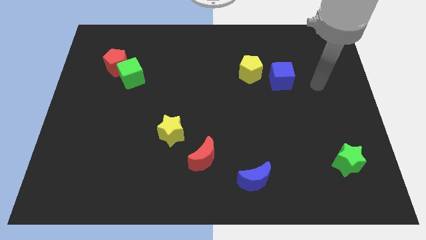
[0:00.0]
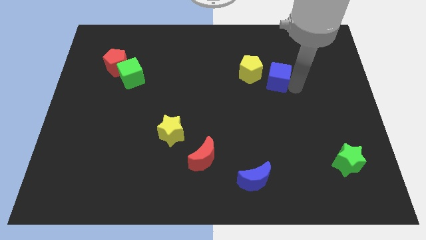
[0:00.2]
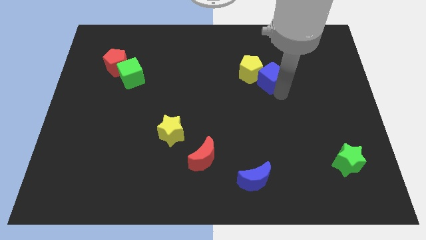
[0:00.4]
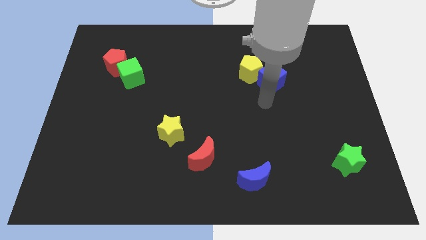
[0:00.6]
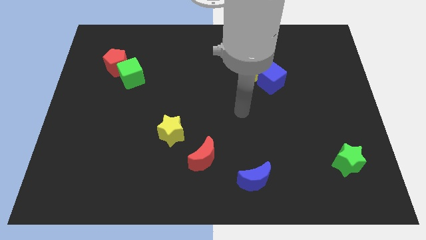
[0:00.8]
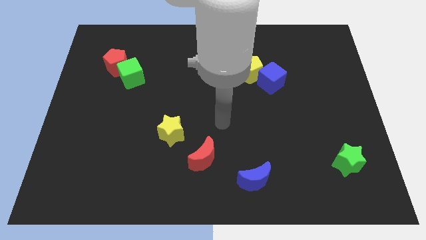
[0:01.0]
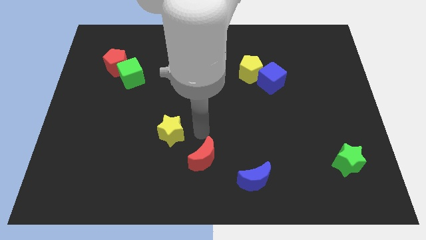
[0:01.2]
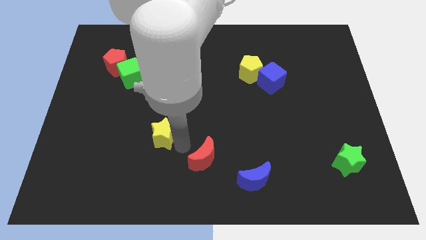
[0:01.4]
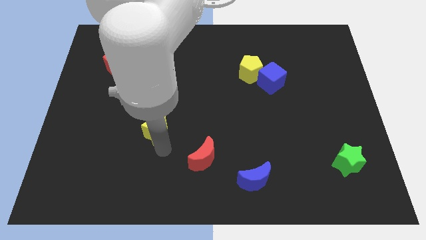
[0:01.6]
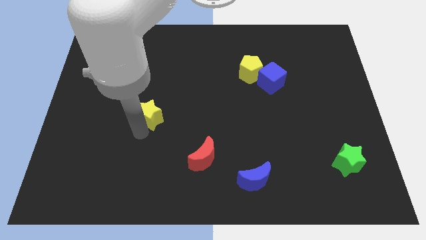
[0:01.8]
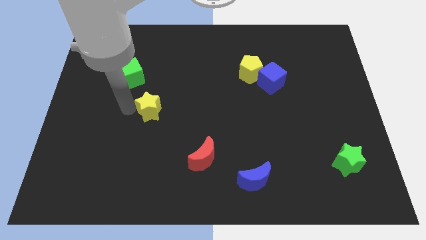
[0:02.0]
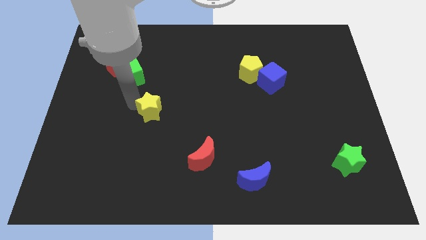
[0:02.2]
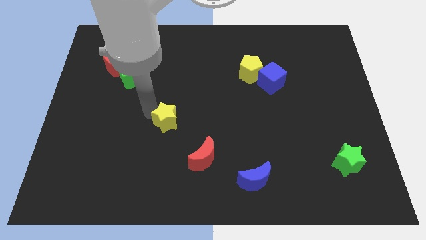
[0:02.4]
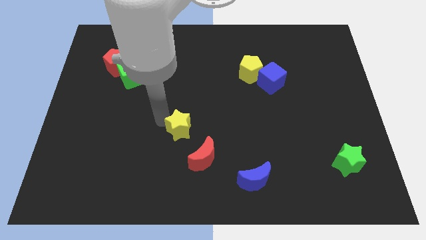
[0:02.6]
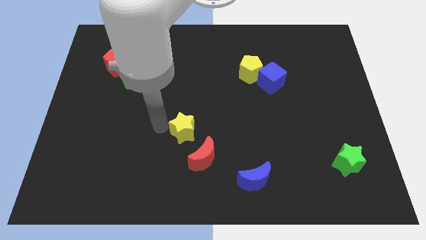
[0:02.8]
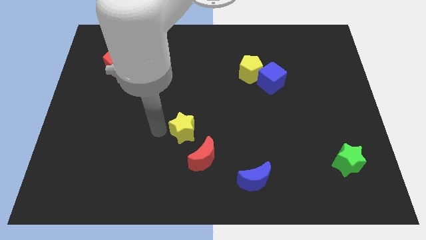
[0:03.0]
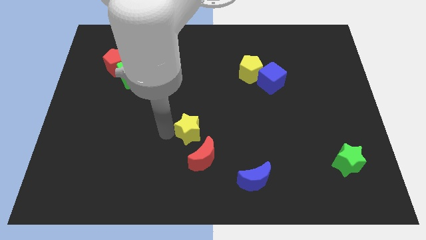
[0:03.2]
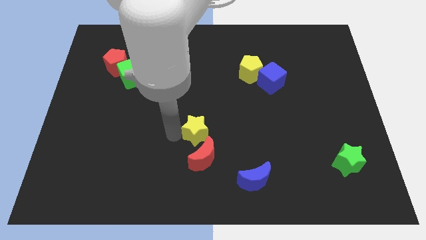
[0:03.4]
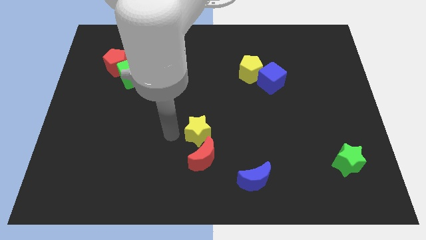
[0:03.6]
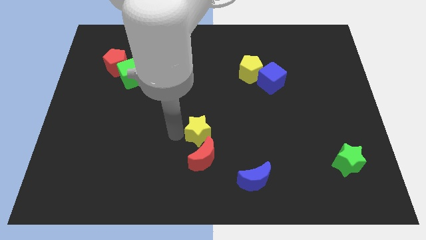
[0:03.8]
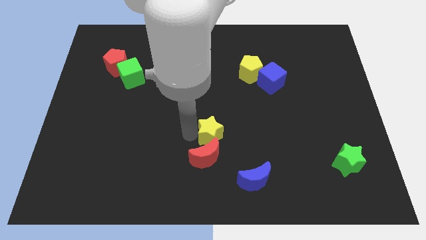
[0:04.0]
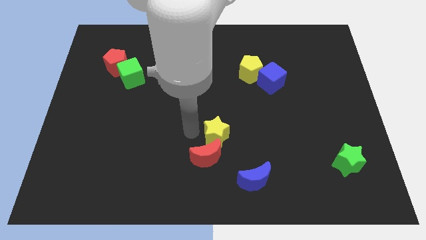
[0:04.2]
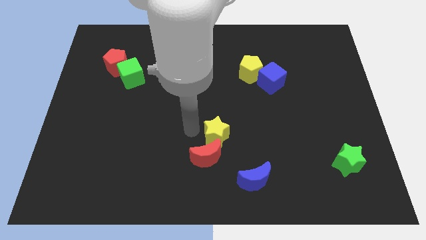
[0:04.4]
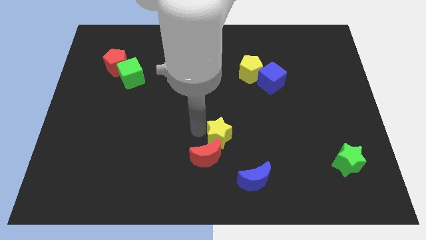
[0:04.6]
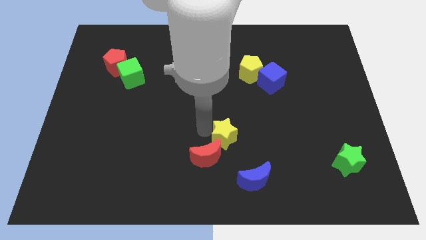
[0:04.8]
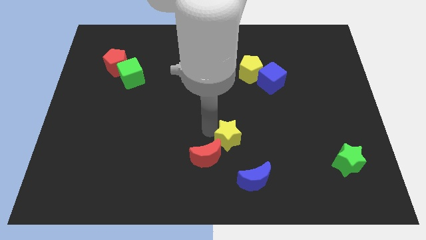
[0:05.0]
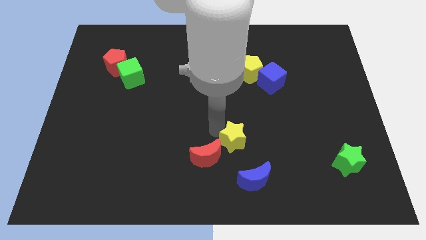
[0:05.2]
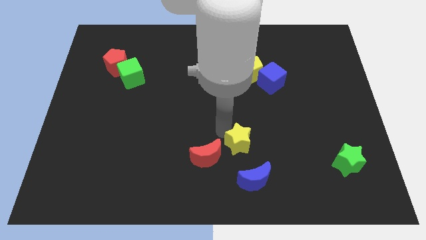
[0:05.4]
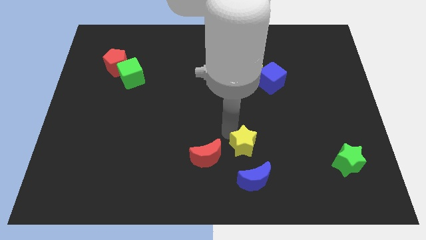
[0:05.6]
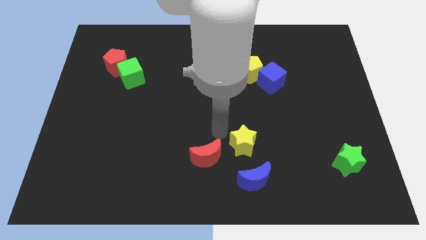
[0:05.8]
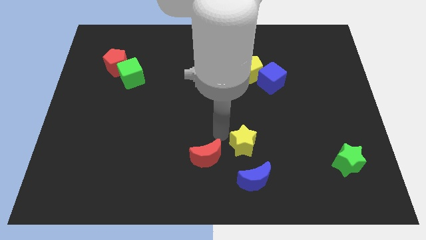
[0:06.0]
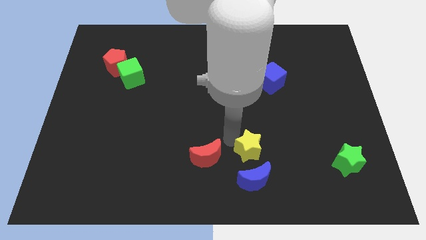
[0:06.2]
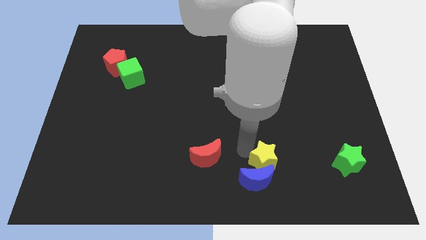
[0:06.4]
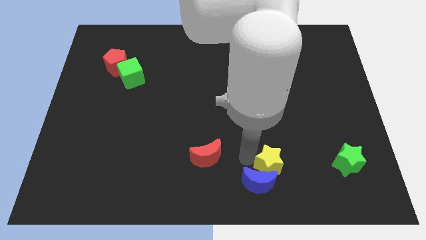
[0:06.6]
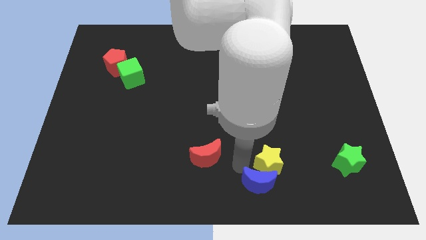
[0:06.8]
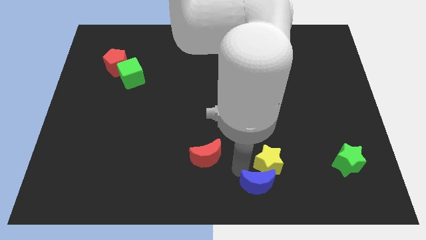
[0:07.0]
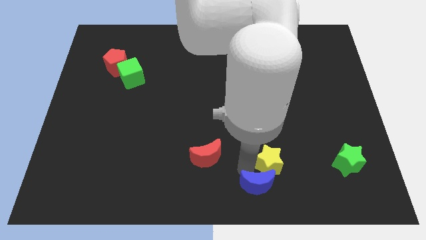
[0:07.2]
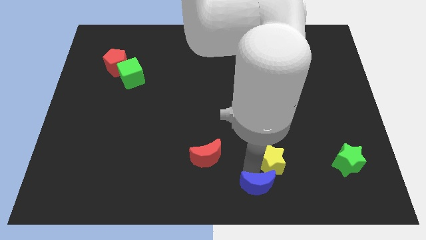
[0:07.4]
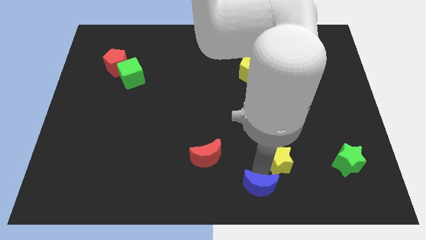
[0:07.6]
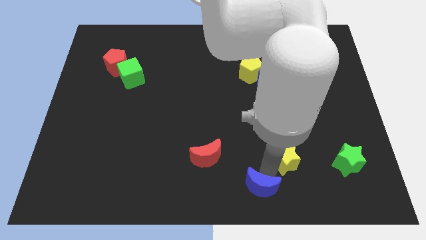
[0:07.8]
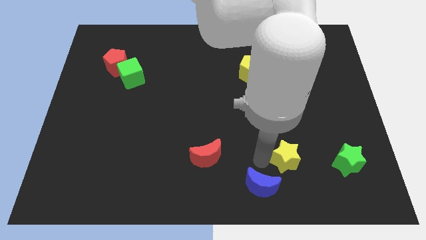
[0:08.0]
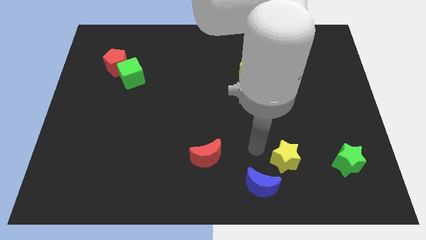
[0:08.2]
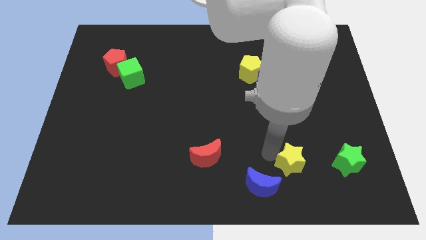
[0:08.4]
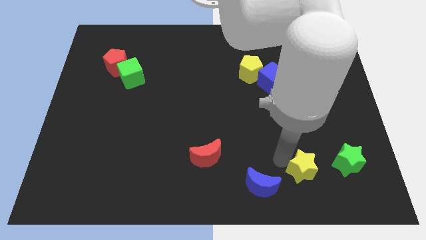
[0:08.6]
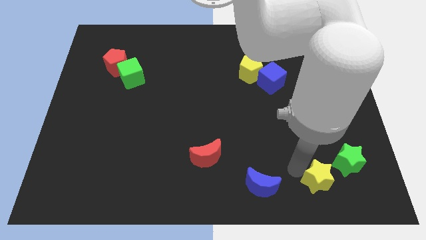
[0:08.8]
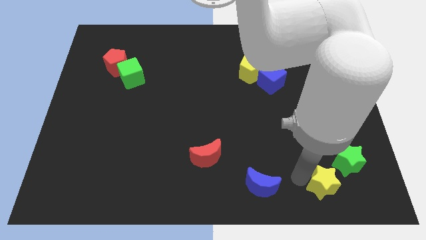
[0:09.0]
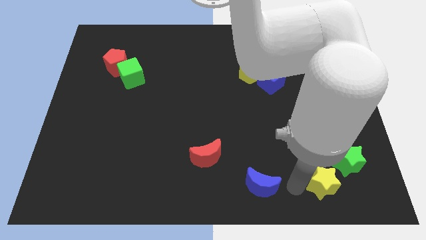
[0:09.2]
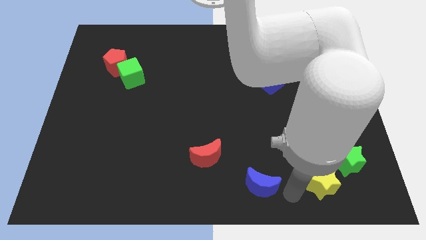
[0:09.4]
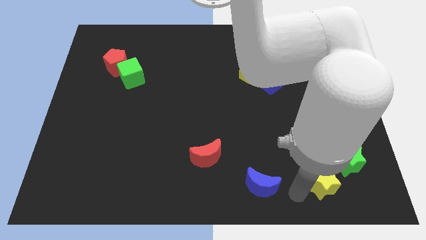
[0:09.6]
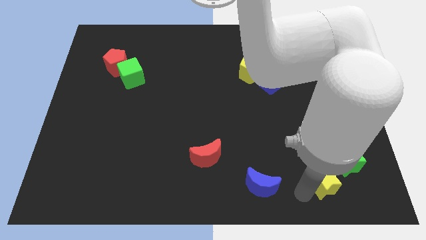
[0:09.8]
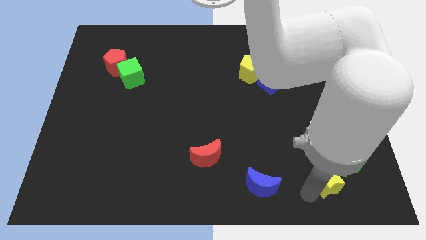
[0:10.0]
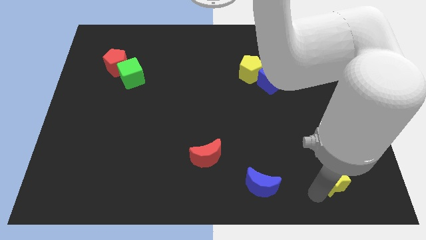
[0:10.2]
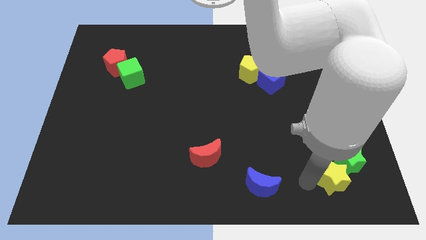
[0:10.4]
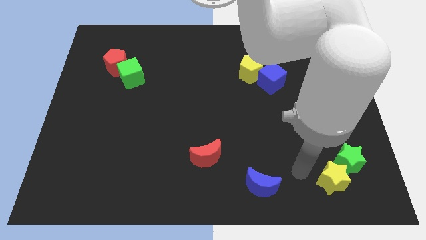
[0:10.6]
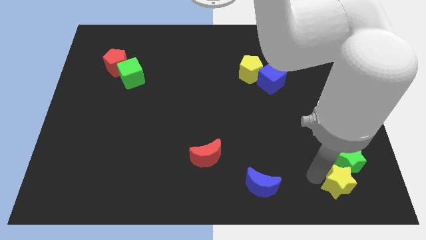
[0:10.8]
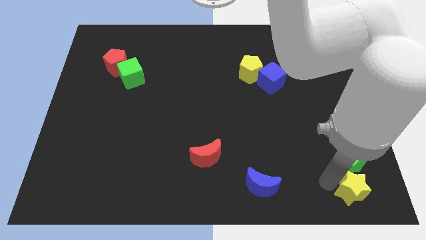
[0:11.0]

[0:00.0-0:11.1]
slide the yellow star to the lower right corner

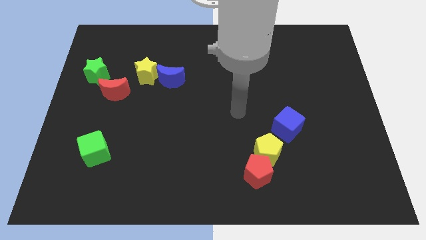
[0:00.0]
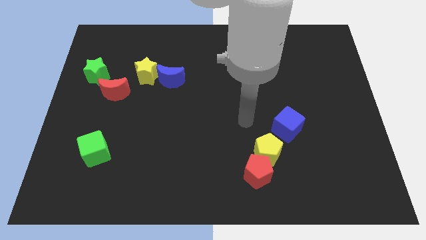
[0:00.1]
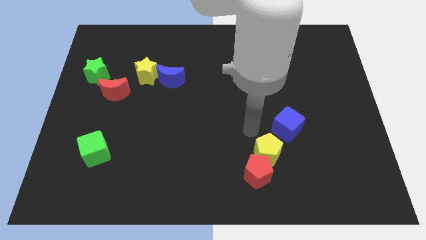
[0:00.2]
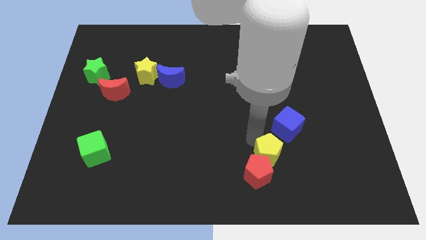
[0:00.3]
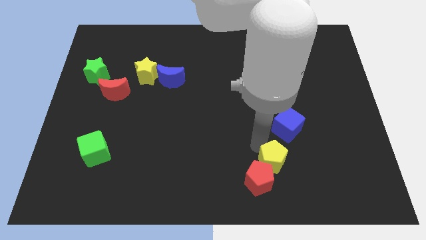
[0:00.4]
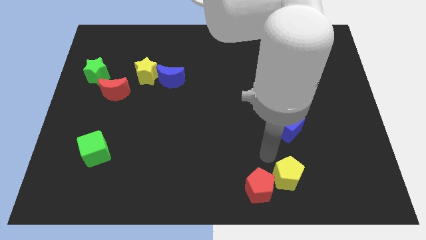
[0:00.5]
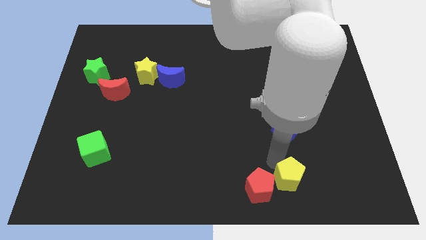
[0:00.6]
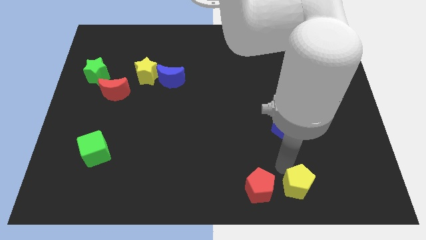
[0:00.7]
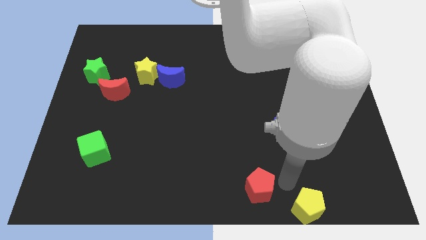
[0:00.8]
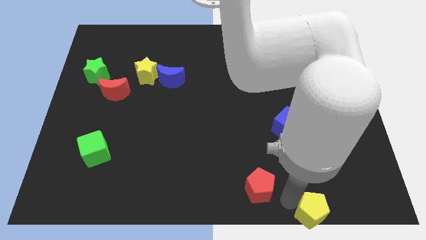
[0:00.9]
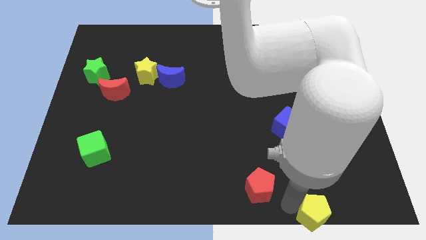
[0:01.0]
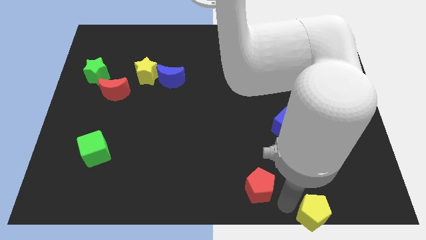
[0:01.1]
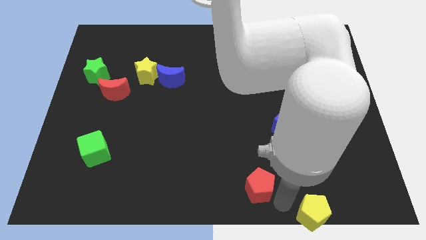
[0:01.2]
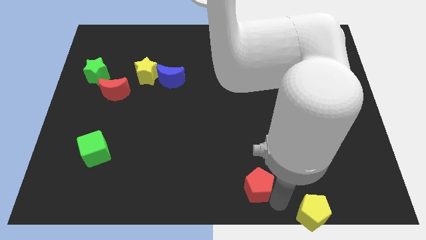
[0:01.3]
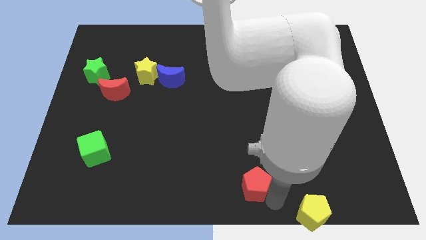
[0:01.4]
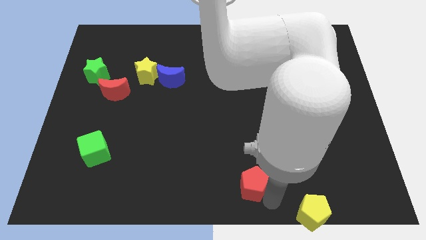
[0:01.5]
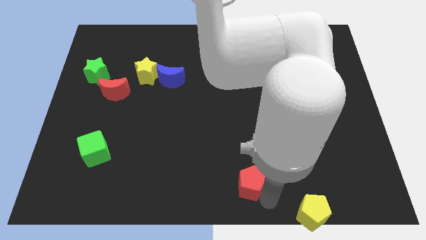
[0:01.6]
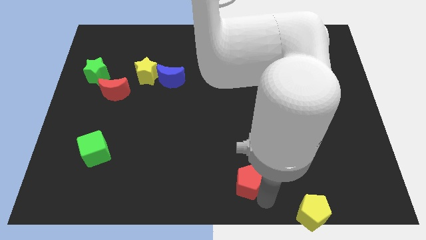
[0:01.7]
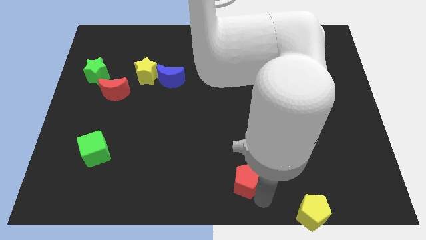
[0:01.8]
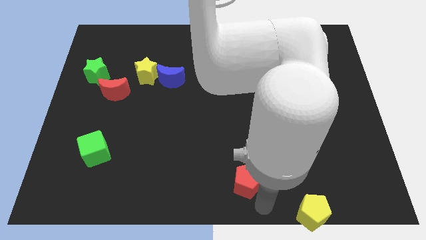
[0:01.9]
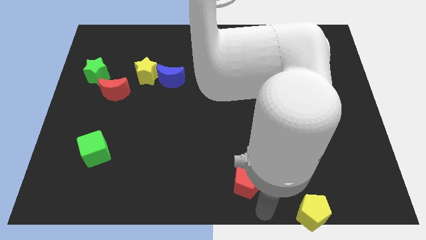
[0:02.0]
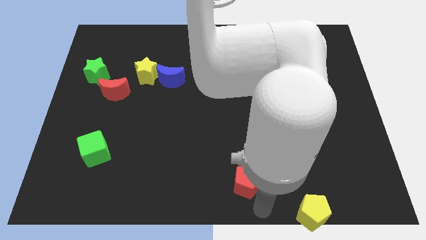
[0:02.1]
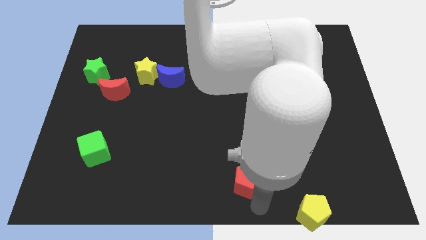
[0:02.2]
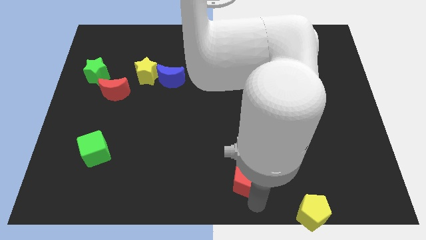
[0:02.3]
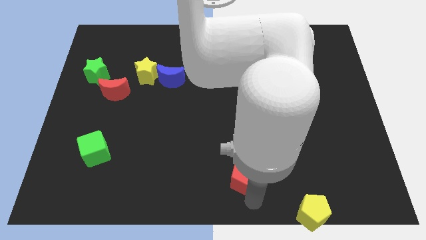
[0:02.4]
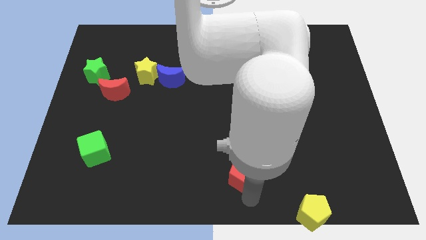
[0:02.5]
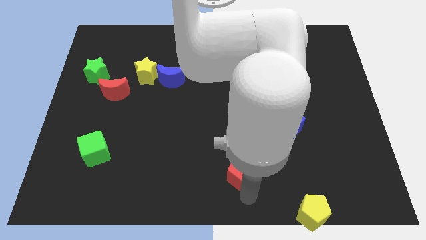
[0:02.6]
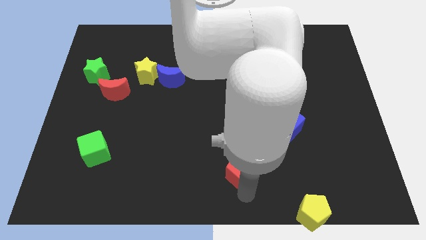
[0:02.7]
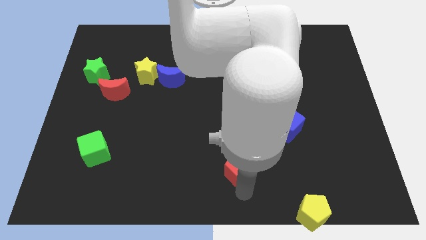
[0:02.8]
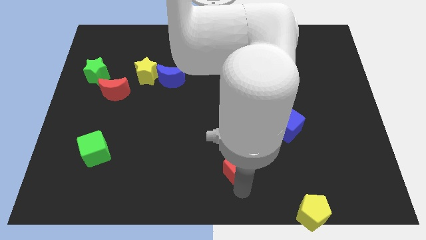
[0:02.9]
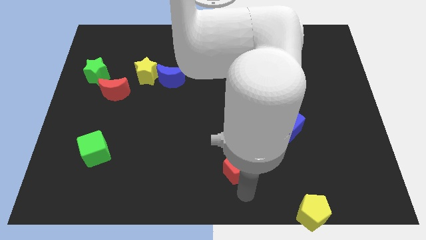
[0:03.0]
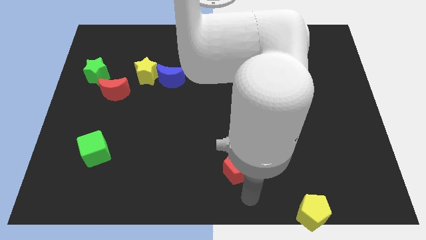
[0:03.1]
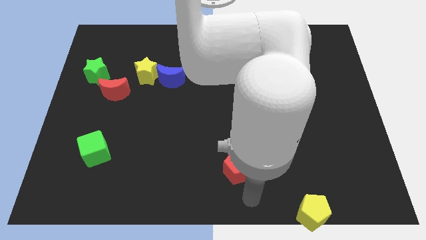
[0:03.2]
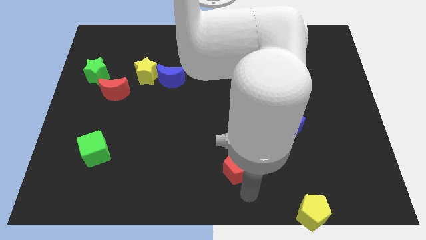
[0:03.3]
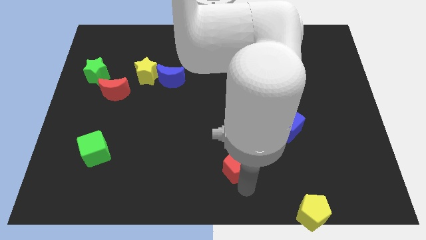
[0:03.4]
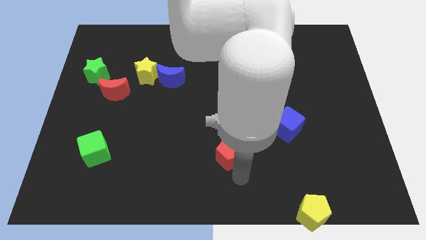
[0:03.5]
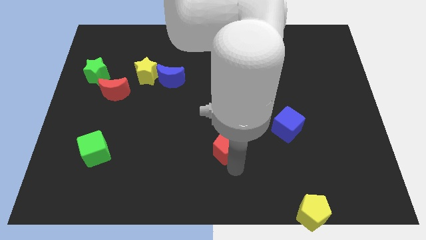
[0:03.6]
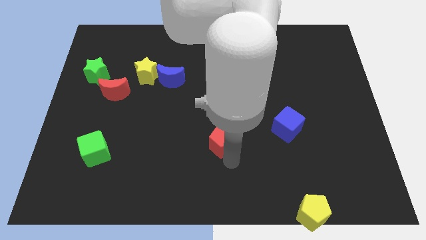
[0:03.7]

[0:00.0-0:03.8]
put the red pentagon to the middle
